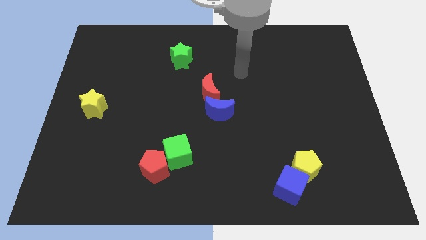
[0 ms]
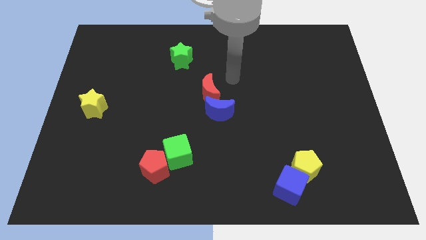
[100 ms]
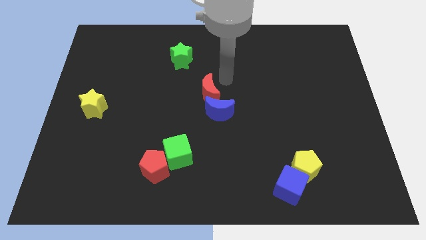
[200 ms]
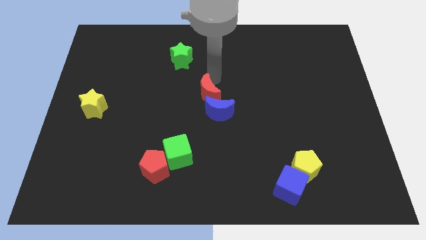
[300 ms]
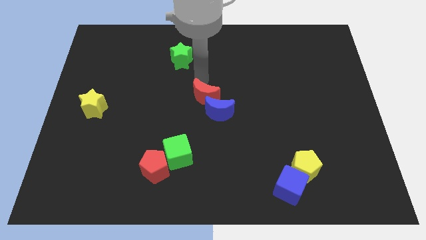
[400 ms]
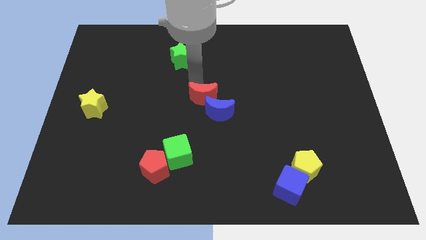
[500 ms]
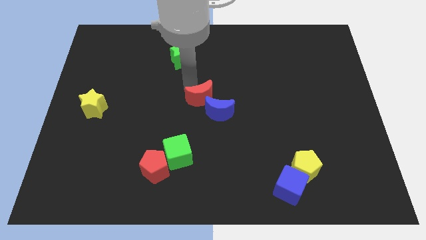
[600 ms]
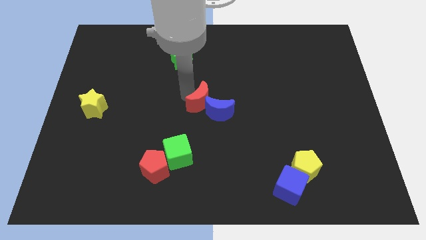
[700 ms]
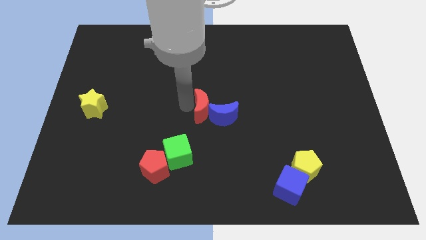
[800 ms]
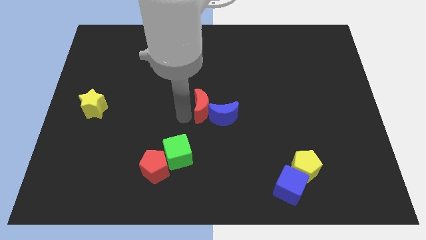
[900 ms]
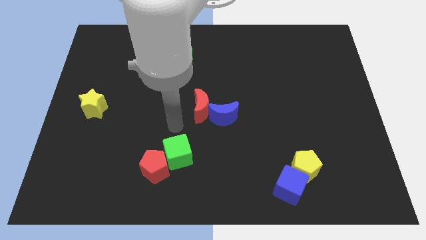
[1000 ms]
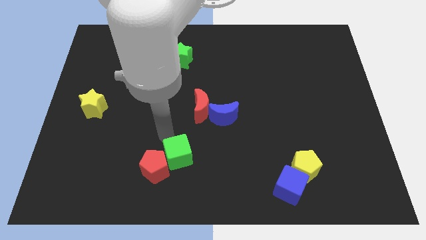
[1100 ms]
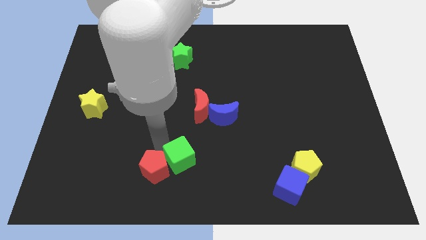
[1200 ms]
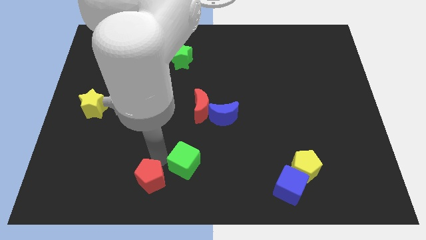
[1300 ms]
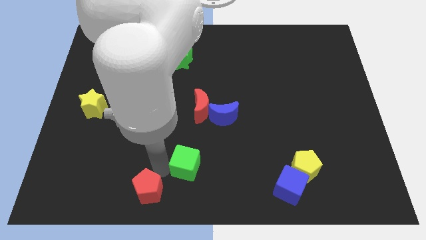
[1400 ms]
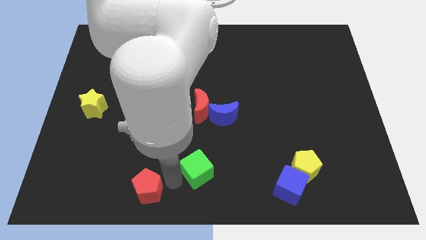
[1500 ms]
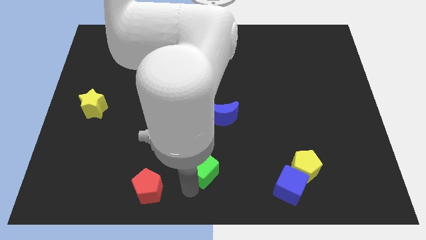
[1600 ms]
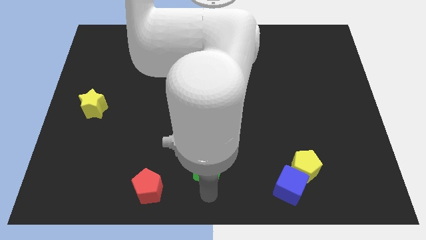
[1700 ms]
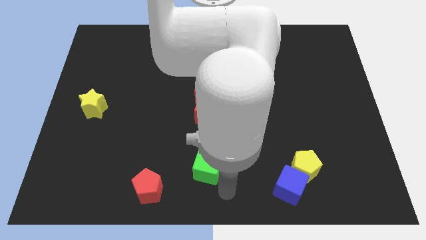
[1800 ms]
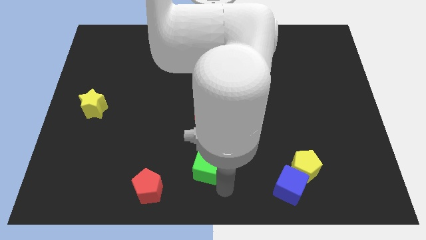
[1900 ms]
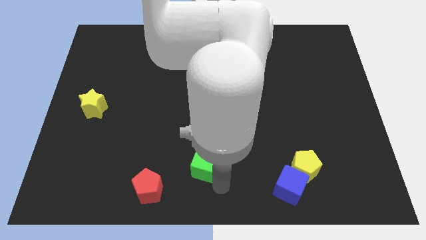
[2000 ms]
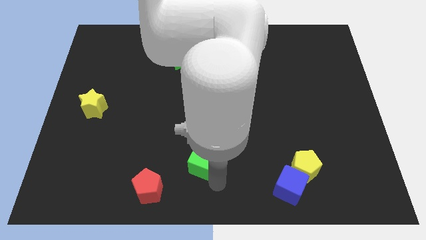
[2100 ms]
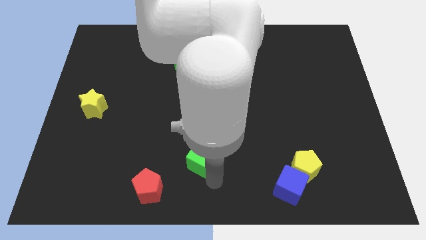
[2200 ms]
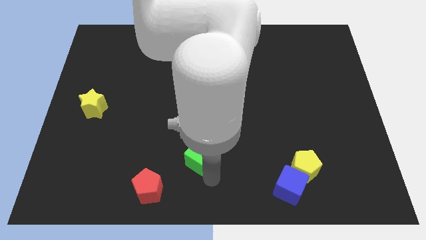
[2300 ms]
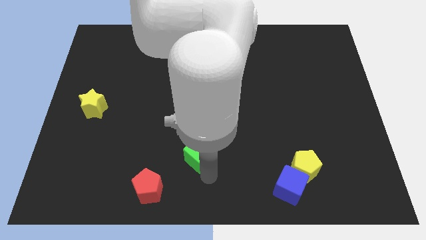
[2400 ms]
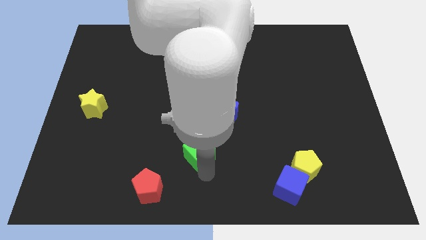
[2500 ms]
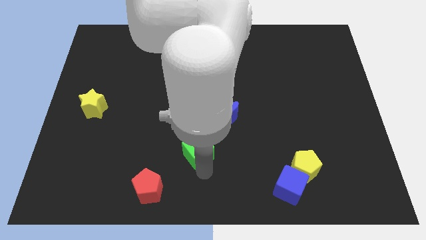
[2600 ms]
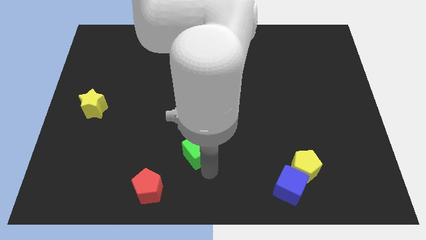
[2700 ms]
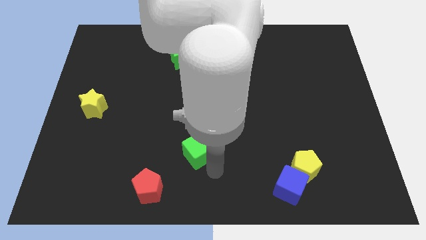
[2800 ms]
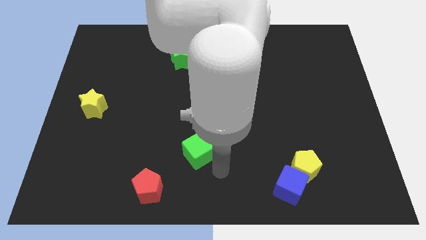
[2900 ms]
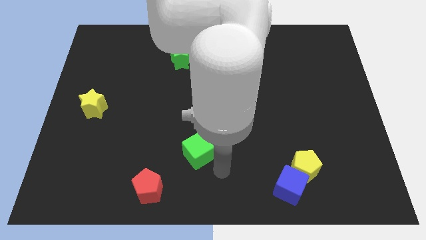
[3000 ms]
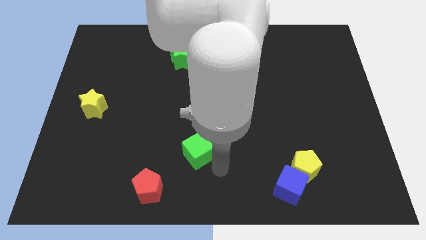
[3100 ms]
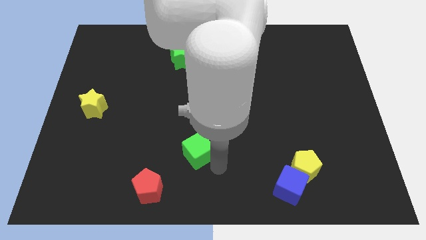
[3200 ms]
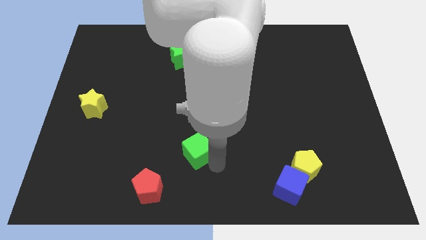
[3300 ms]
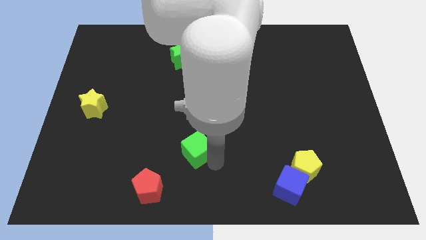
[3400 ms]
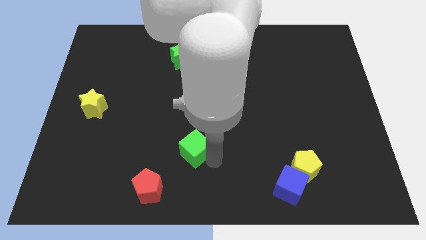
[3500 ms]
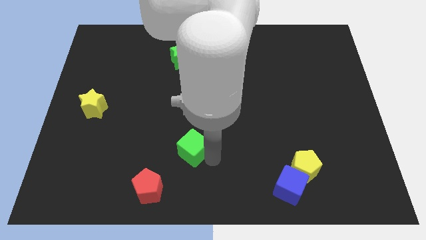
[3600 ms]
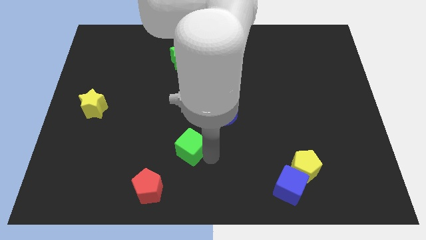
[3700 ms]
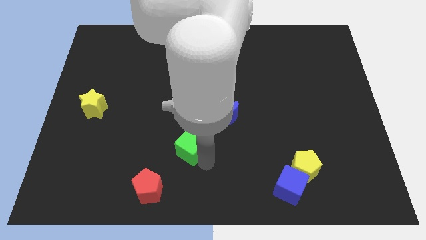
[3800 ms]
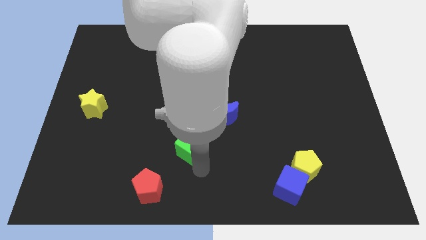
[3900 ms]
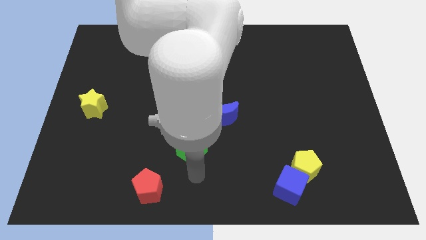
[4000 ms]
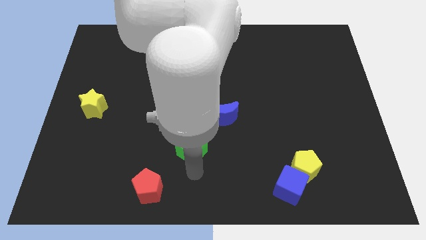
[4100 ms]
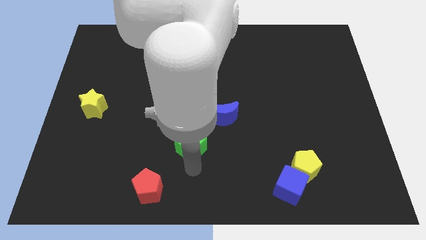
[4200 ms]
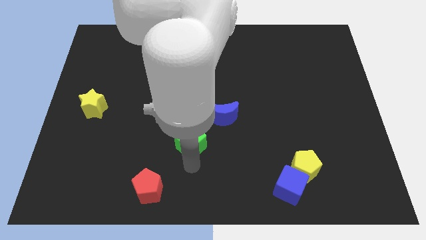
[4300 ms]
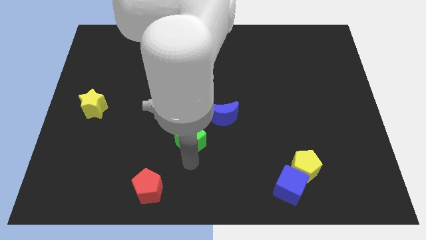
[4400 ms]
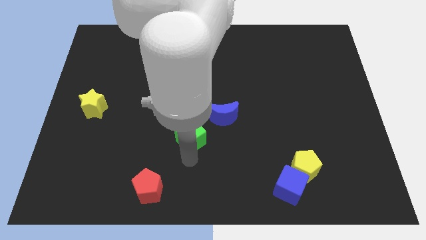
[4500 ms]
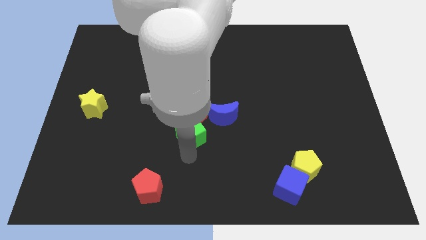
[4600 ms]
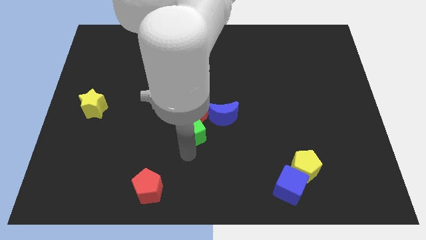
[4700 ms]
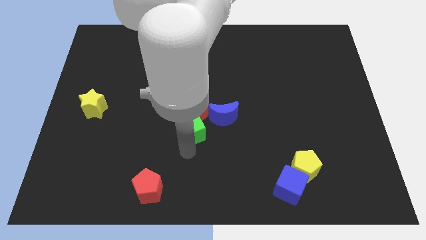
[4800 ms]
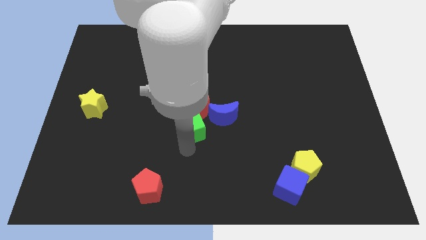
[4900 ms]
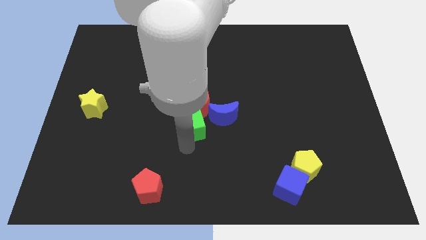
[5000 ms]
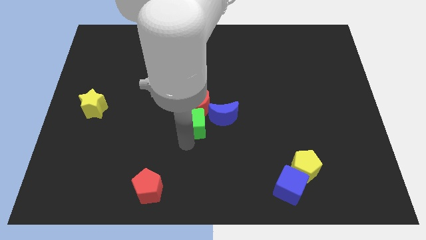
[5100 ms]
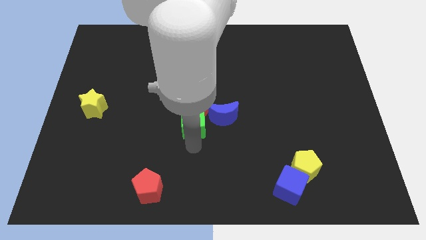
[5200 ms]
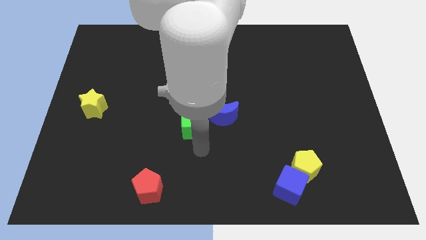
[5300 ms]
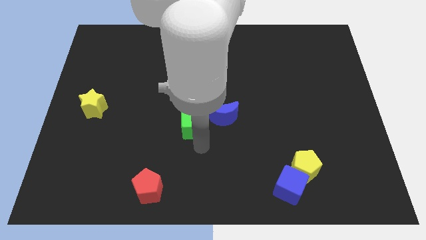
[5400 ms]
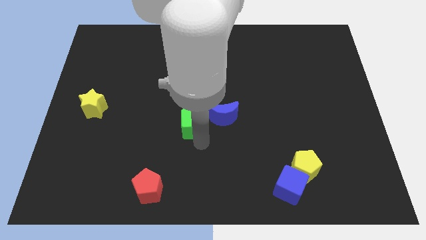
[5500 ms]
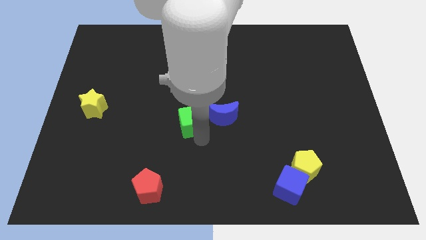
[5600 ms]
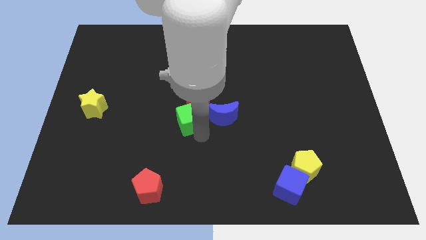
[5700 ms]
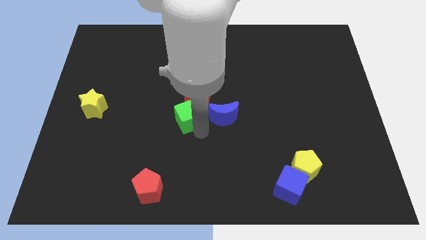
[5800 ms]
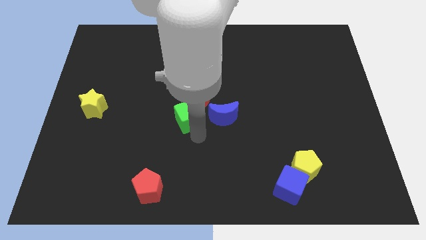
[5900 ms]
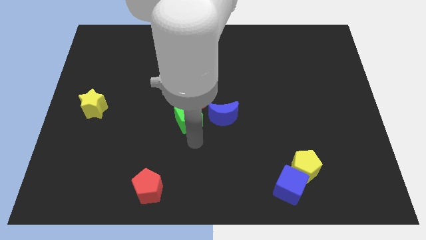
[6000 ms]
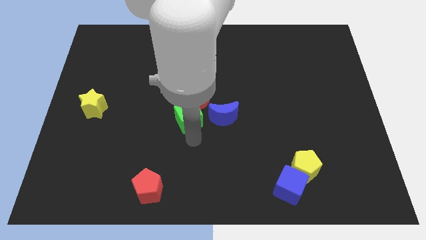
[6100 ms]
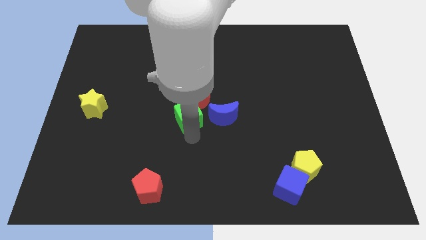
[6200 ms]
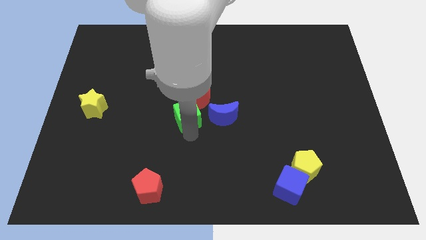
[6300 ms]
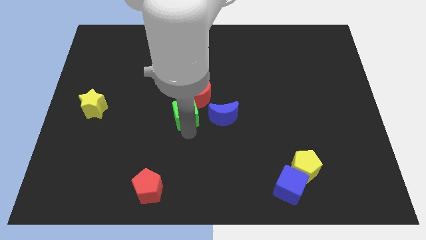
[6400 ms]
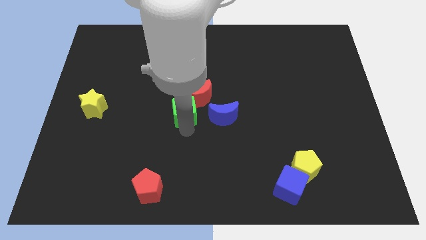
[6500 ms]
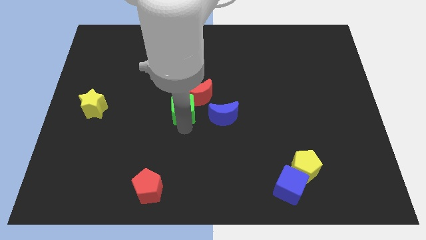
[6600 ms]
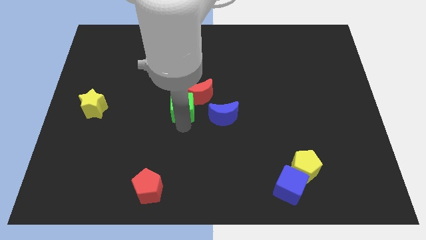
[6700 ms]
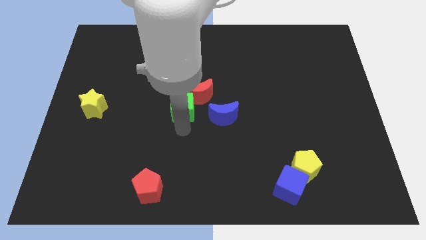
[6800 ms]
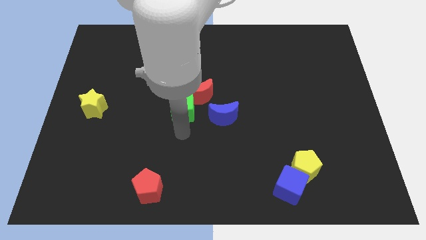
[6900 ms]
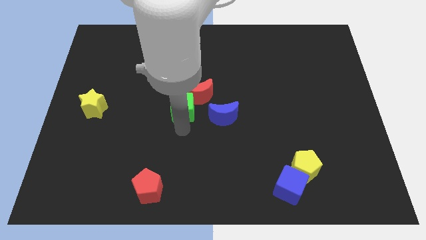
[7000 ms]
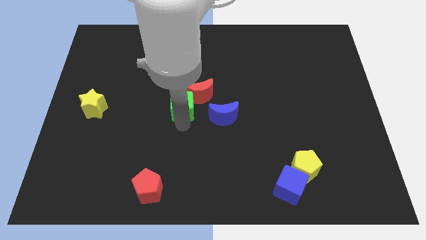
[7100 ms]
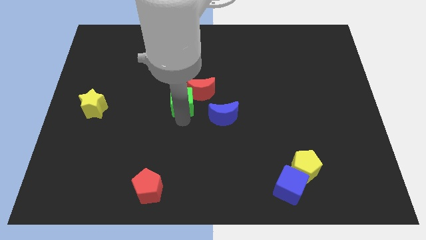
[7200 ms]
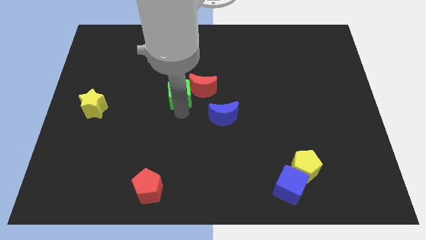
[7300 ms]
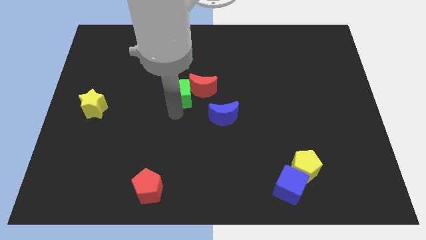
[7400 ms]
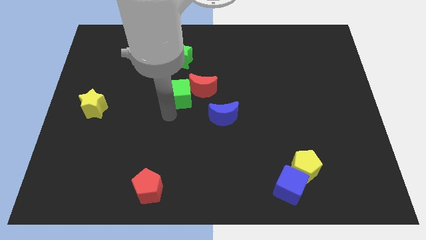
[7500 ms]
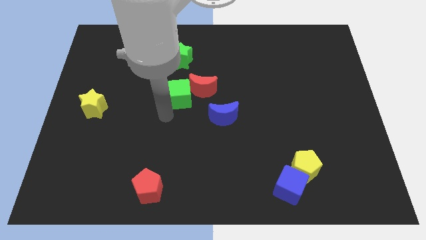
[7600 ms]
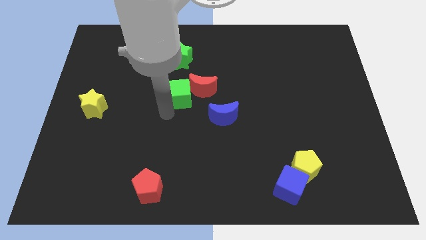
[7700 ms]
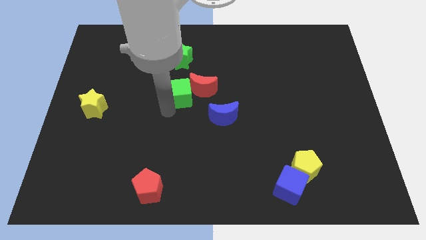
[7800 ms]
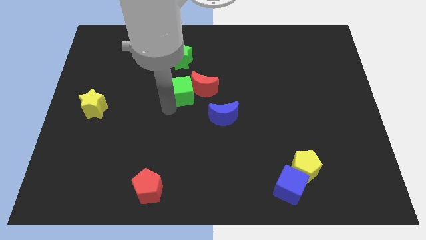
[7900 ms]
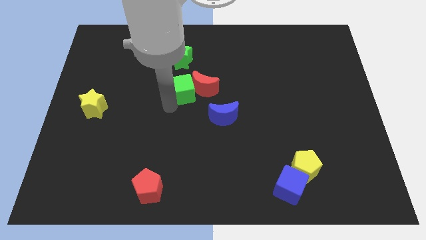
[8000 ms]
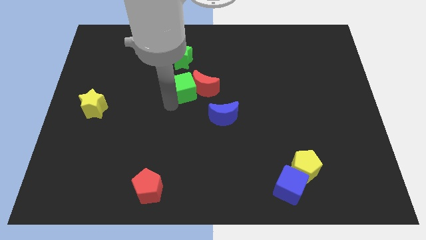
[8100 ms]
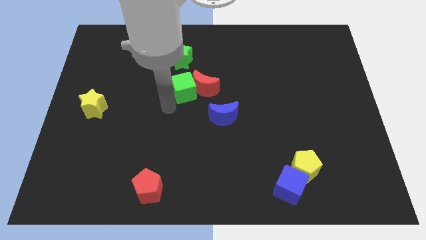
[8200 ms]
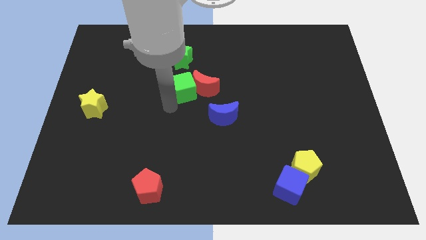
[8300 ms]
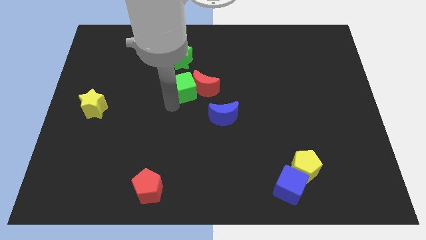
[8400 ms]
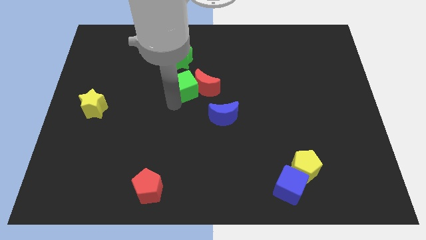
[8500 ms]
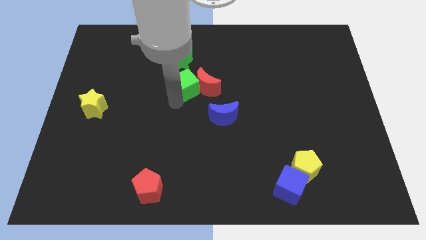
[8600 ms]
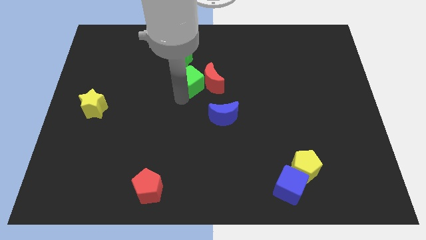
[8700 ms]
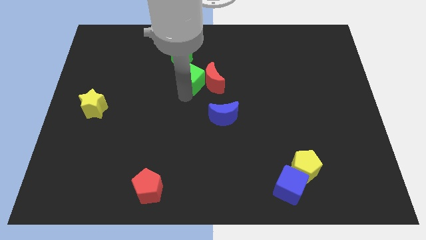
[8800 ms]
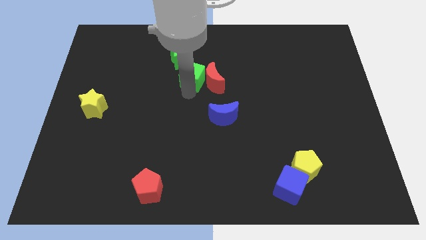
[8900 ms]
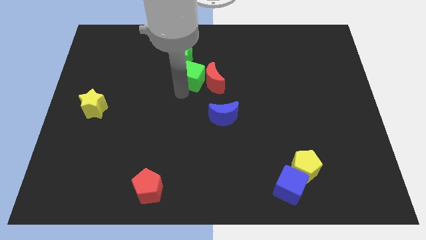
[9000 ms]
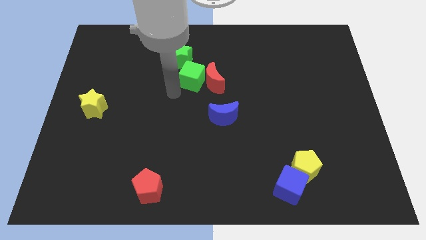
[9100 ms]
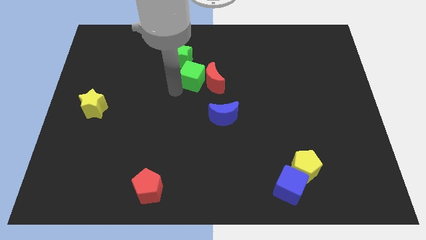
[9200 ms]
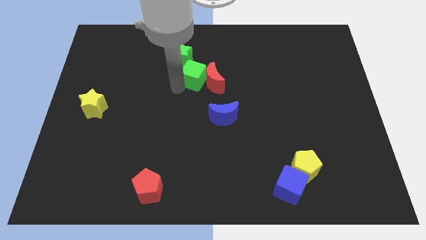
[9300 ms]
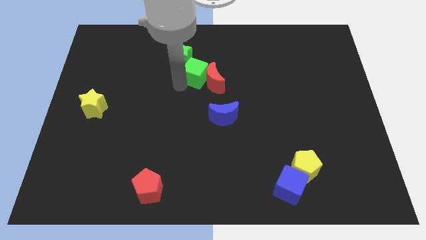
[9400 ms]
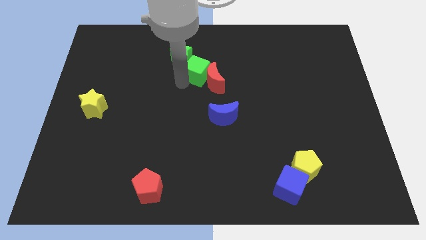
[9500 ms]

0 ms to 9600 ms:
move the green cube to the right of the green star
